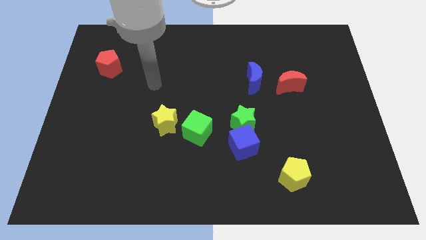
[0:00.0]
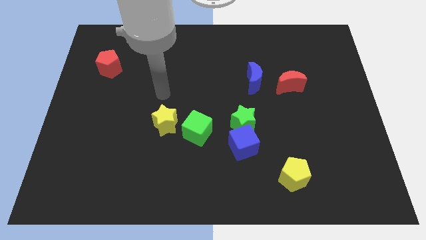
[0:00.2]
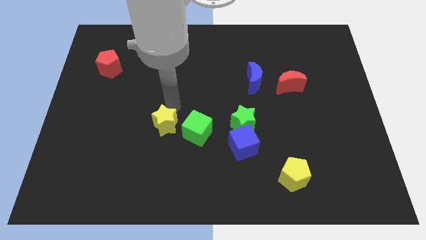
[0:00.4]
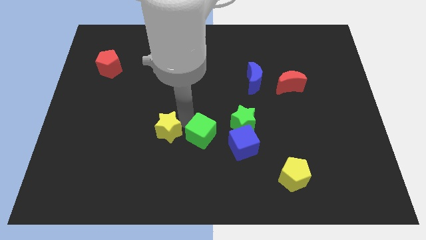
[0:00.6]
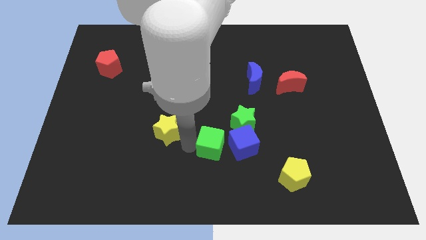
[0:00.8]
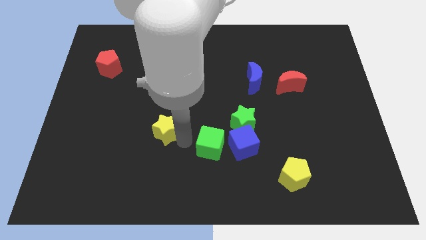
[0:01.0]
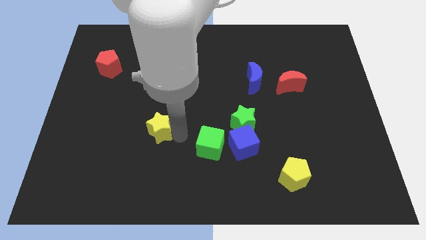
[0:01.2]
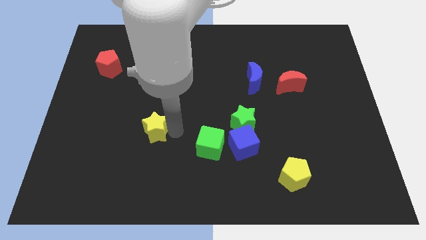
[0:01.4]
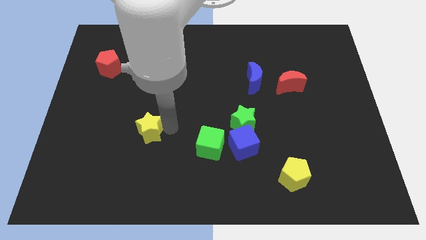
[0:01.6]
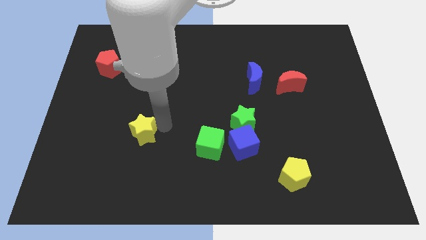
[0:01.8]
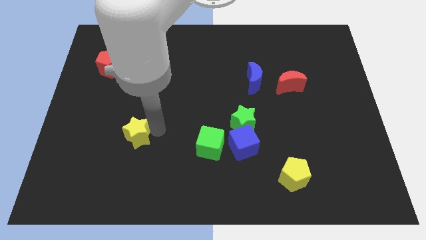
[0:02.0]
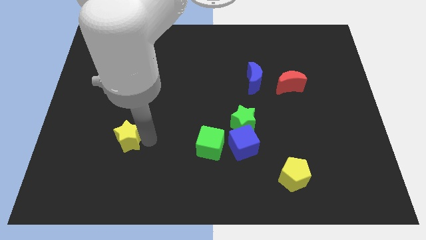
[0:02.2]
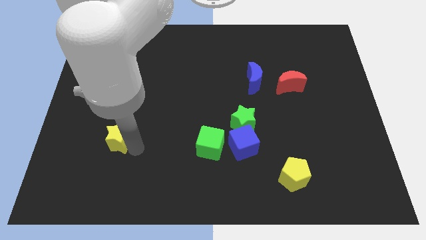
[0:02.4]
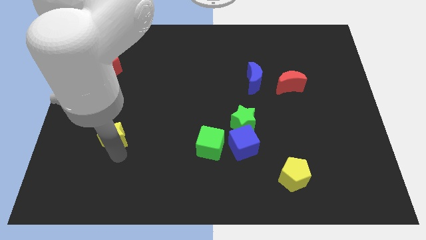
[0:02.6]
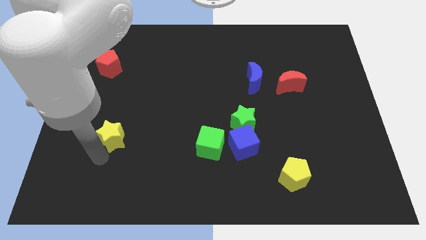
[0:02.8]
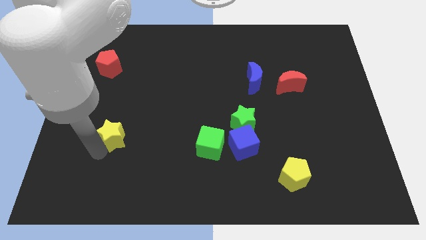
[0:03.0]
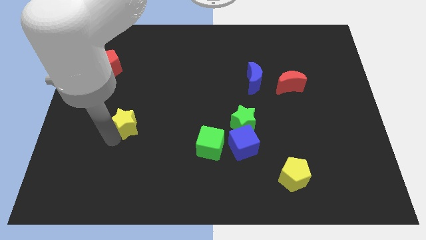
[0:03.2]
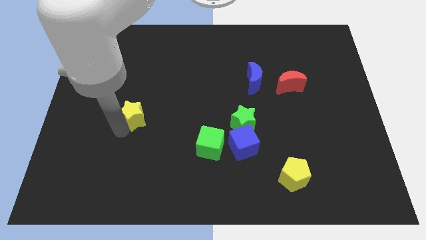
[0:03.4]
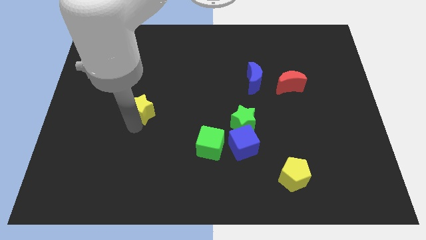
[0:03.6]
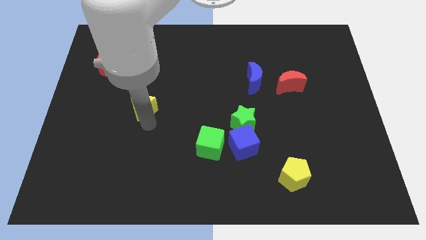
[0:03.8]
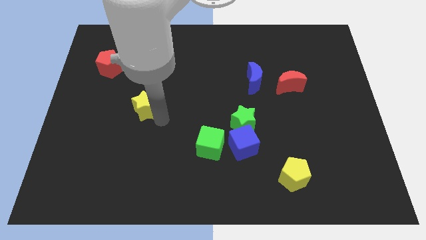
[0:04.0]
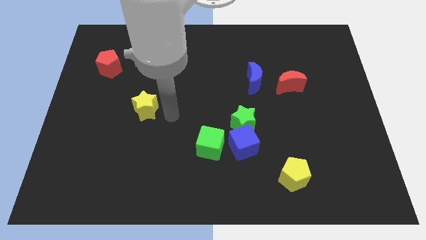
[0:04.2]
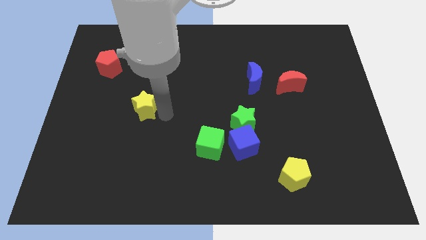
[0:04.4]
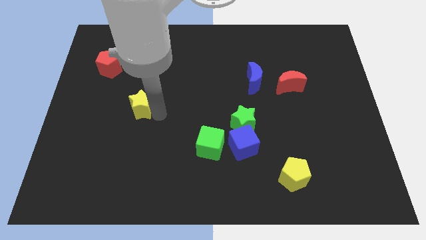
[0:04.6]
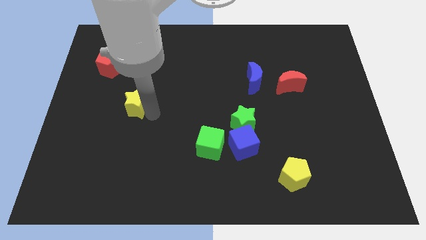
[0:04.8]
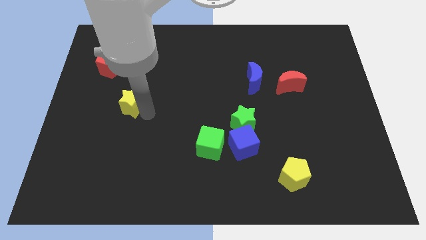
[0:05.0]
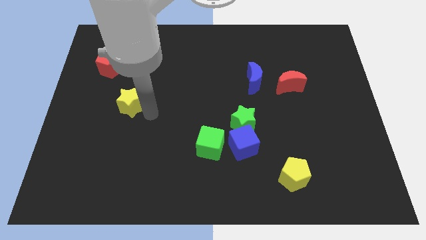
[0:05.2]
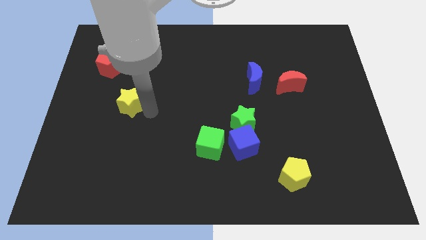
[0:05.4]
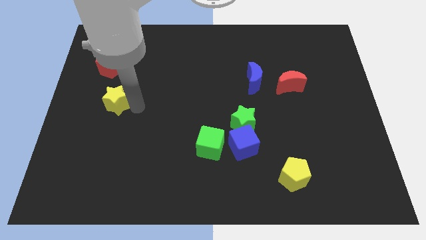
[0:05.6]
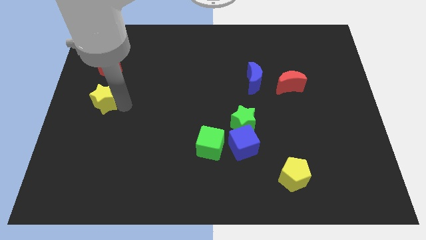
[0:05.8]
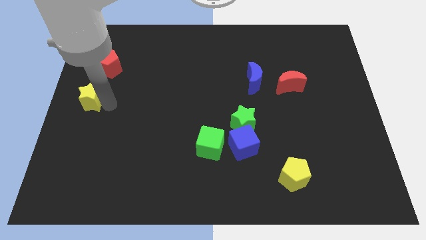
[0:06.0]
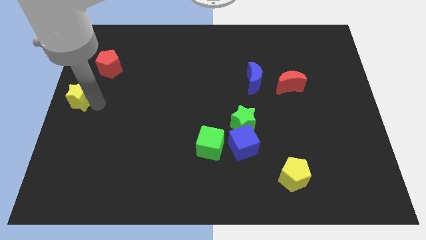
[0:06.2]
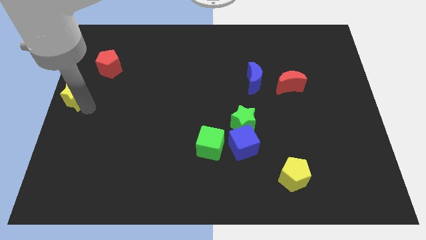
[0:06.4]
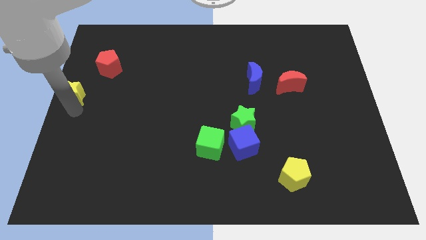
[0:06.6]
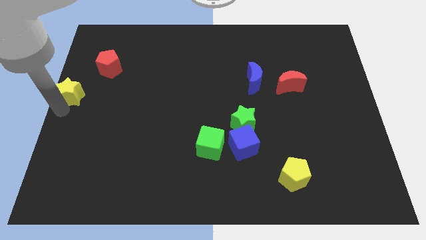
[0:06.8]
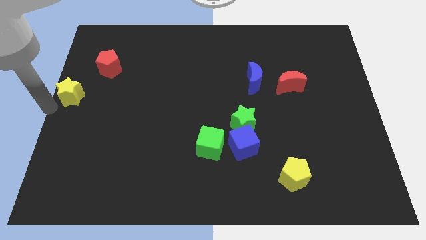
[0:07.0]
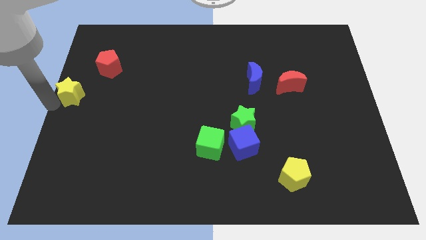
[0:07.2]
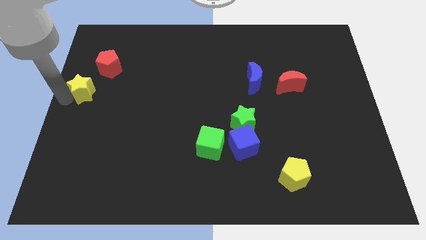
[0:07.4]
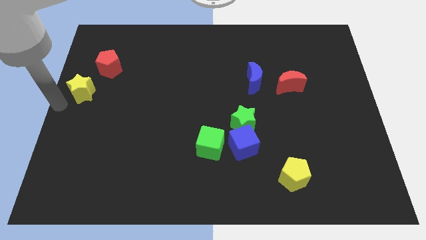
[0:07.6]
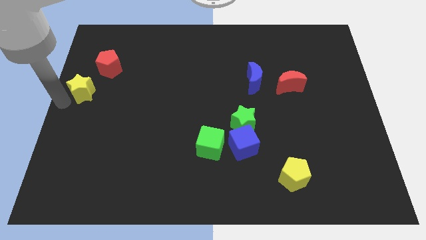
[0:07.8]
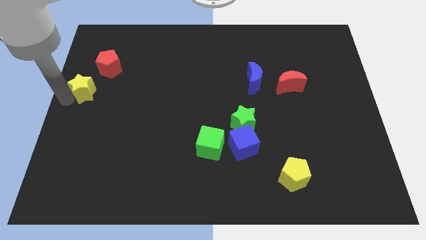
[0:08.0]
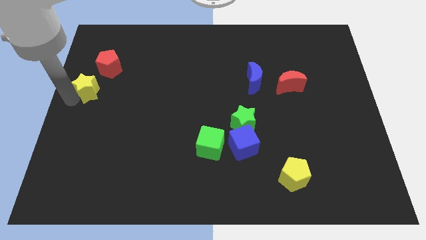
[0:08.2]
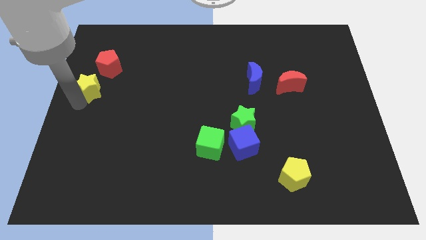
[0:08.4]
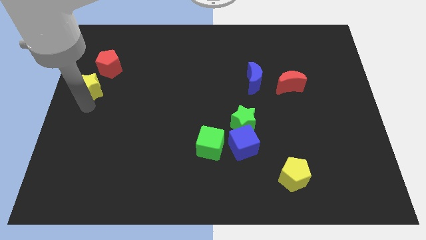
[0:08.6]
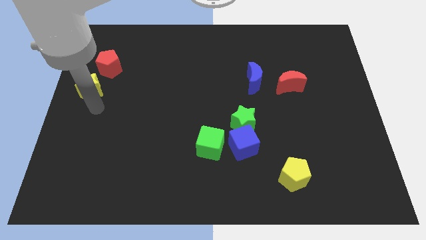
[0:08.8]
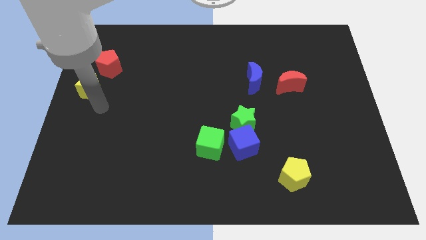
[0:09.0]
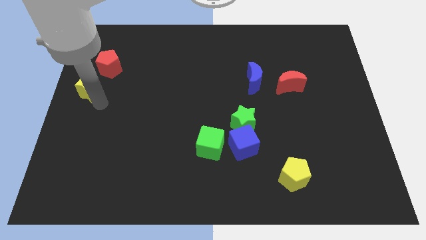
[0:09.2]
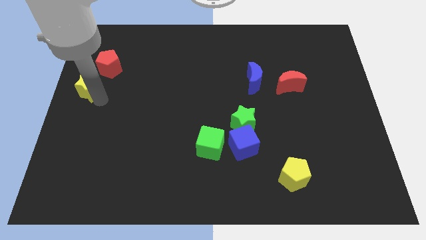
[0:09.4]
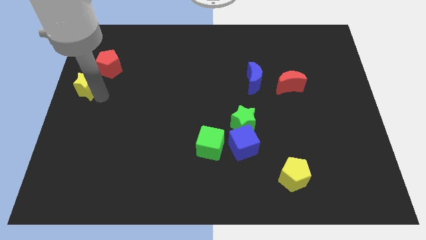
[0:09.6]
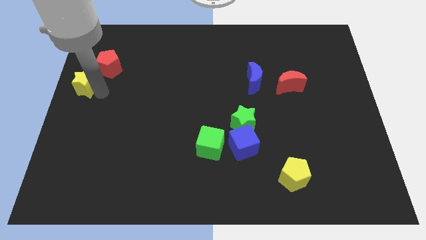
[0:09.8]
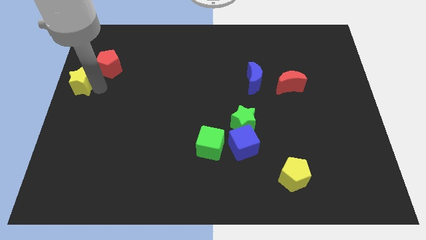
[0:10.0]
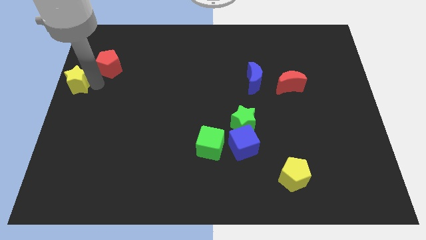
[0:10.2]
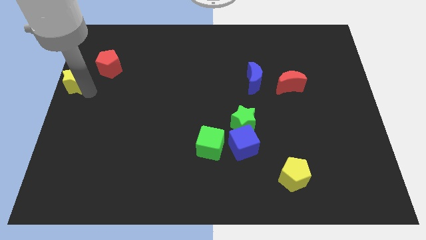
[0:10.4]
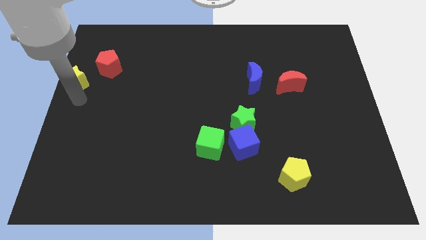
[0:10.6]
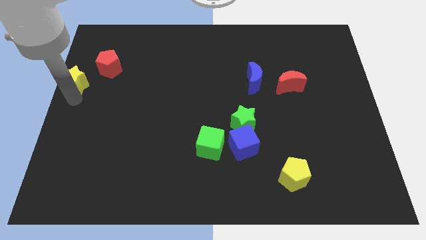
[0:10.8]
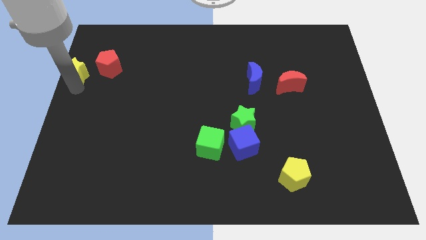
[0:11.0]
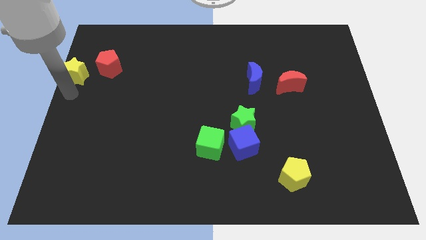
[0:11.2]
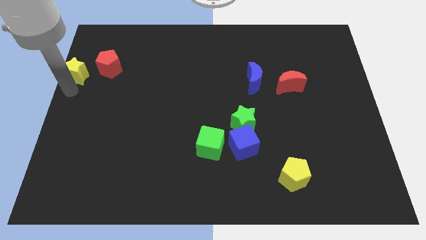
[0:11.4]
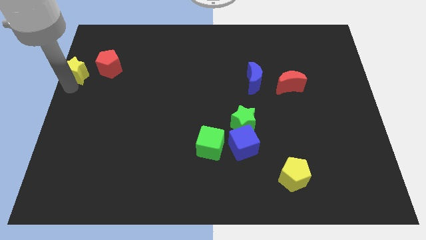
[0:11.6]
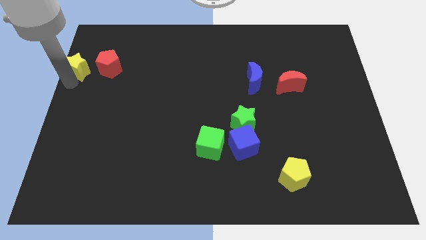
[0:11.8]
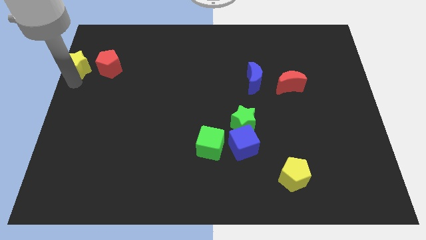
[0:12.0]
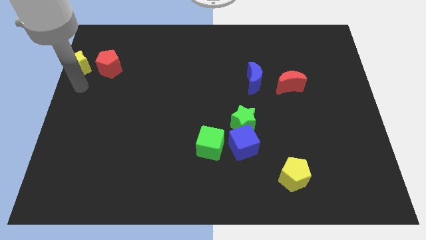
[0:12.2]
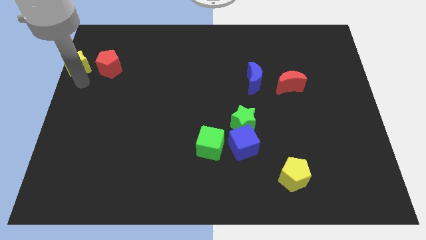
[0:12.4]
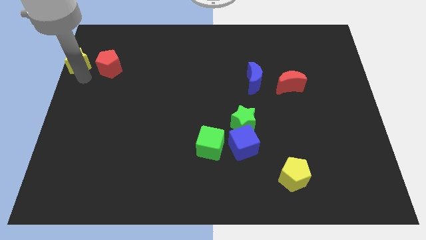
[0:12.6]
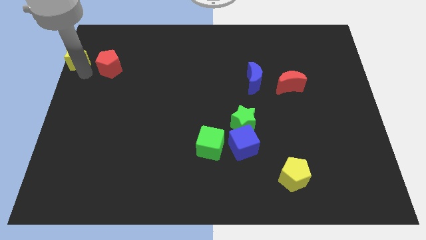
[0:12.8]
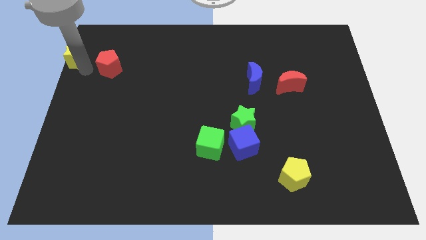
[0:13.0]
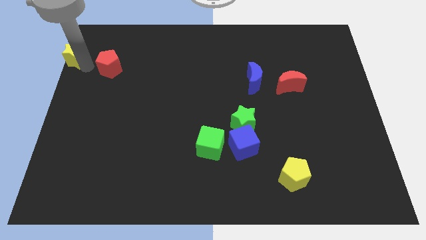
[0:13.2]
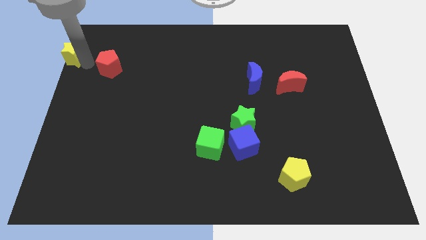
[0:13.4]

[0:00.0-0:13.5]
move the yellow star to the upper left corner
